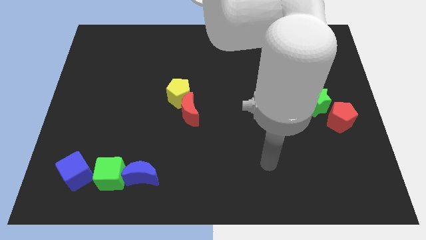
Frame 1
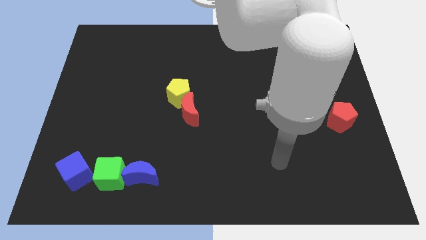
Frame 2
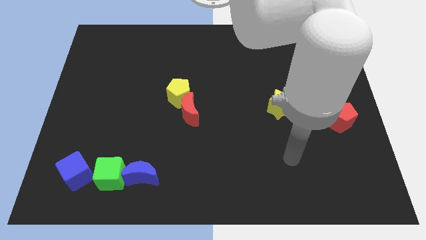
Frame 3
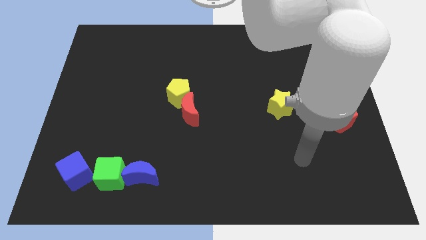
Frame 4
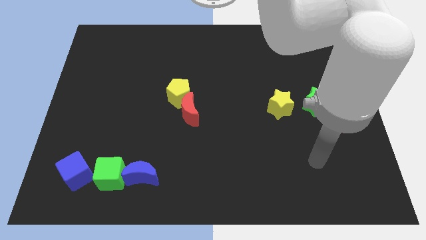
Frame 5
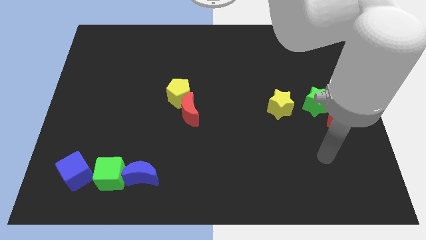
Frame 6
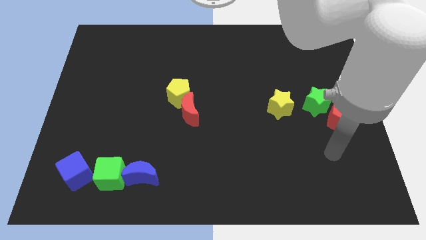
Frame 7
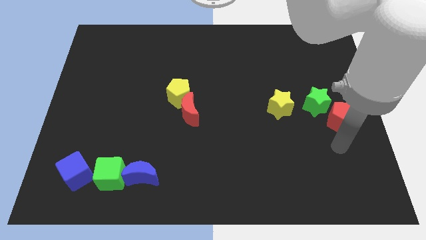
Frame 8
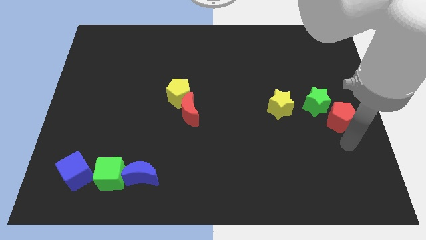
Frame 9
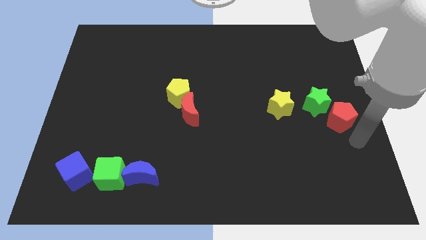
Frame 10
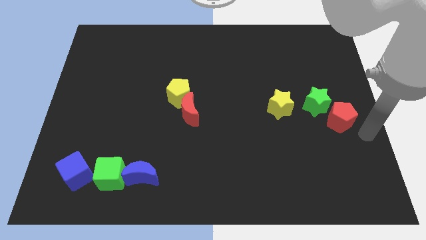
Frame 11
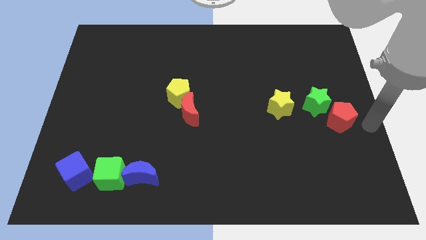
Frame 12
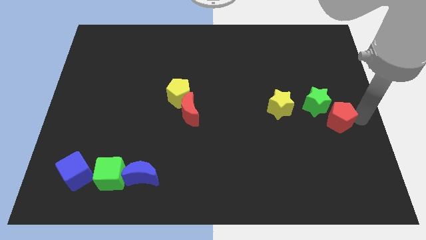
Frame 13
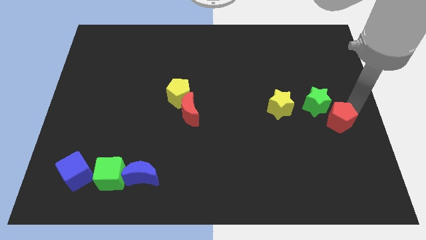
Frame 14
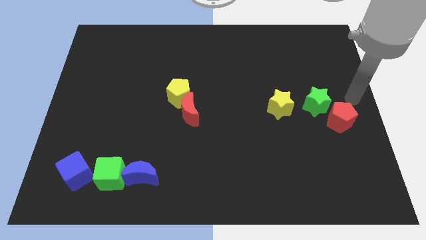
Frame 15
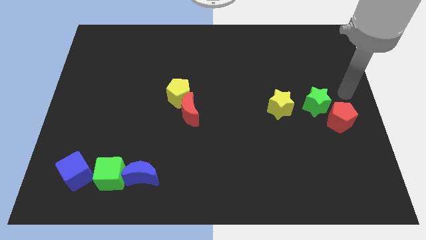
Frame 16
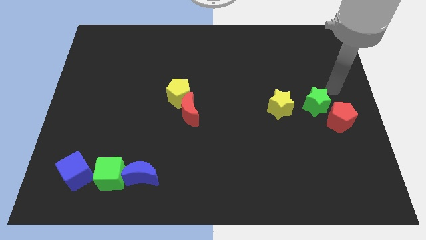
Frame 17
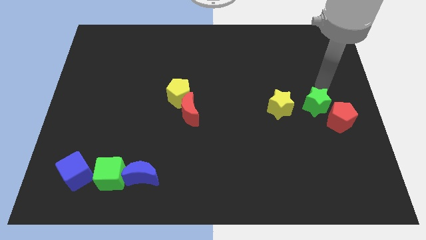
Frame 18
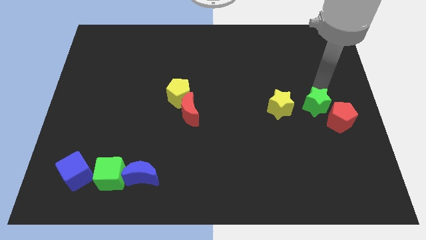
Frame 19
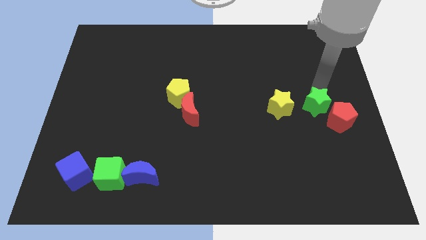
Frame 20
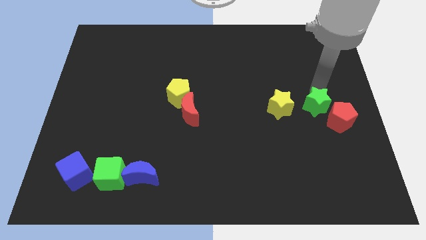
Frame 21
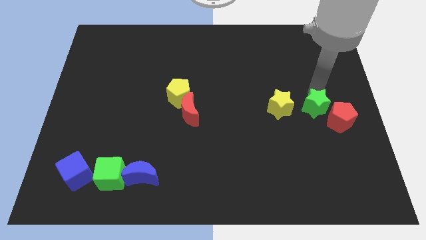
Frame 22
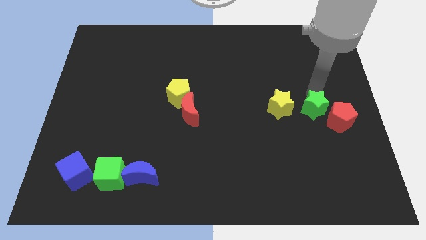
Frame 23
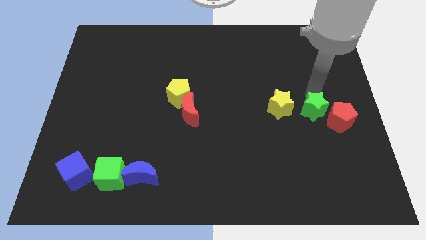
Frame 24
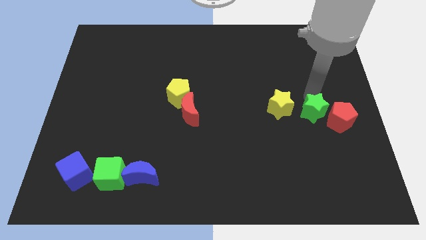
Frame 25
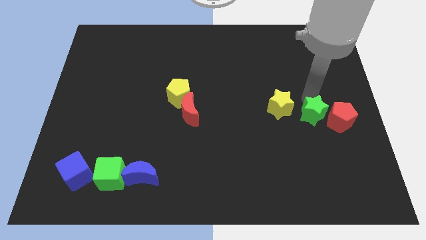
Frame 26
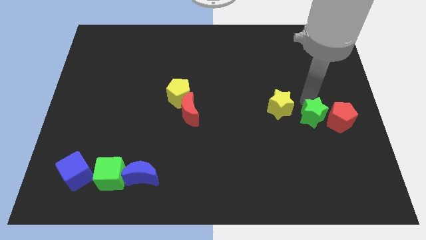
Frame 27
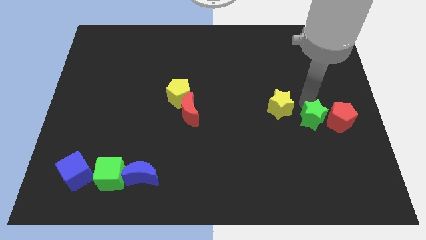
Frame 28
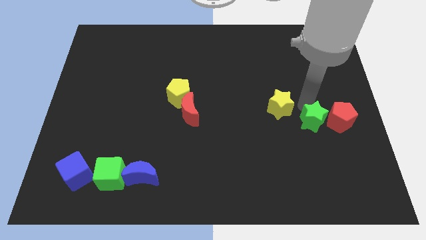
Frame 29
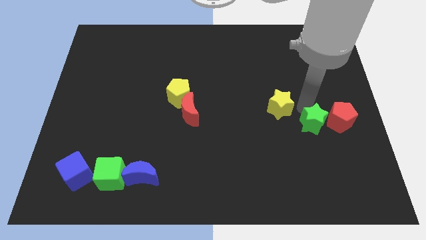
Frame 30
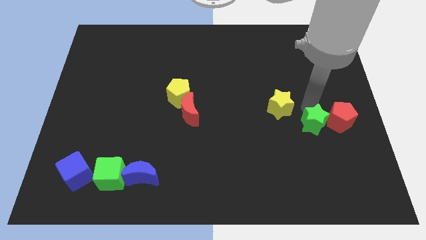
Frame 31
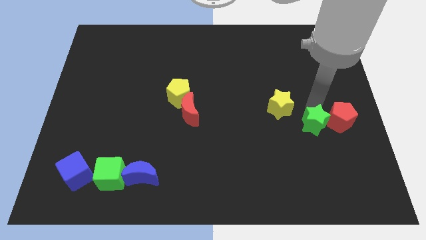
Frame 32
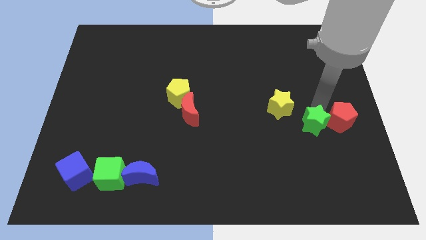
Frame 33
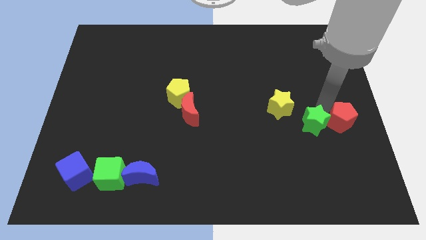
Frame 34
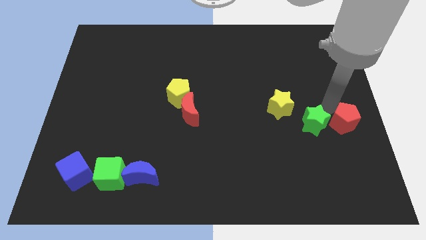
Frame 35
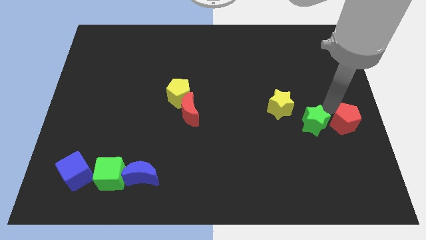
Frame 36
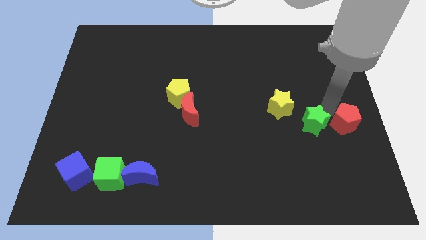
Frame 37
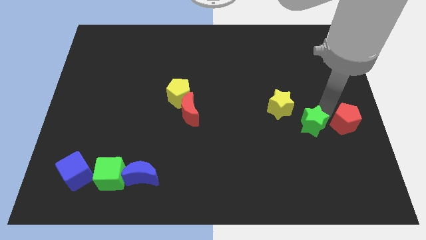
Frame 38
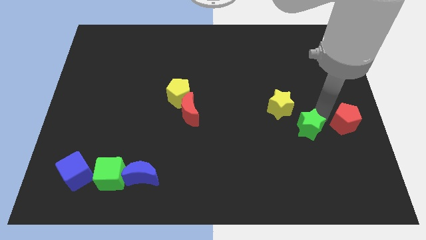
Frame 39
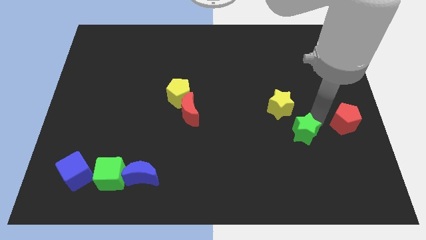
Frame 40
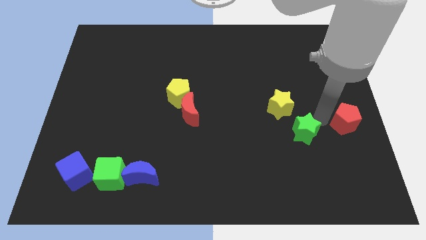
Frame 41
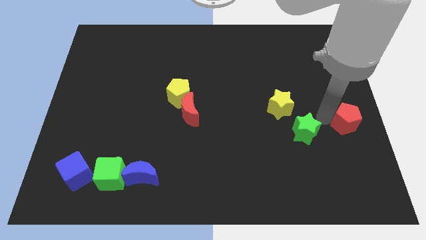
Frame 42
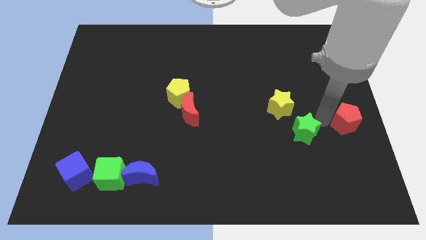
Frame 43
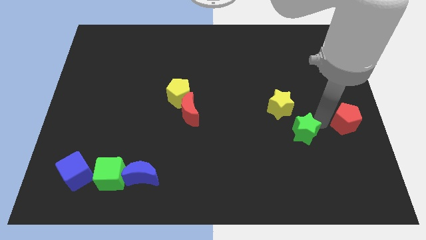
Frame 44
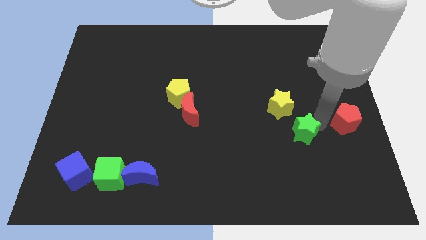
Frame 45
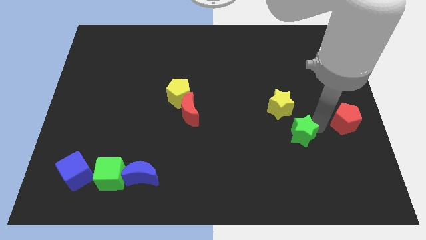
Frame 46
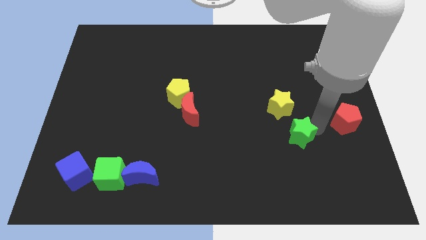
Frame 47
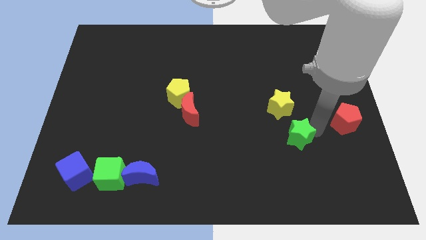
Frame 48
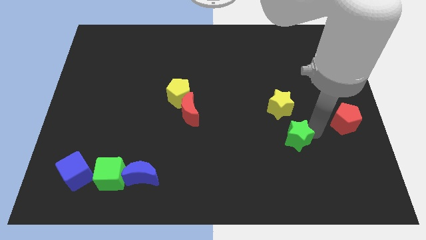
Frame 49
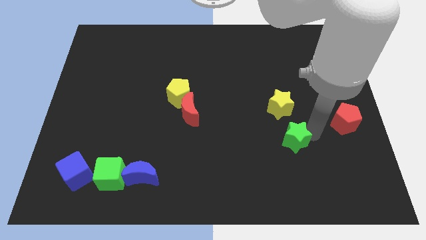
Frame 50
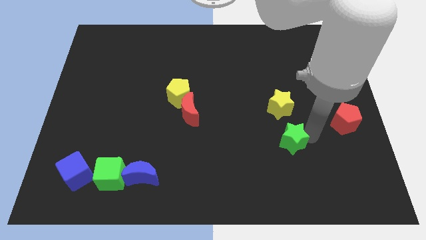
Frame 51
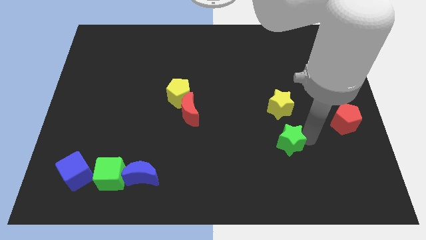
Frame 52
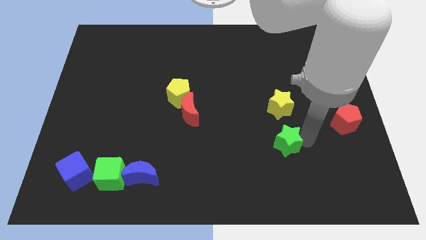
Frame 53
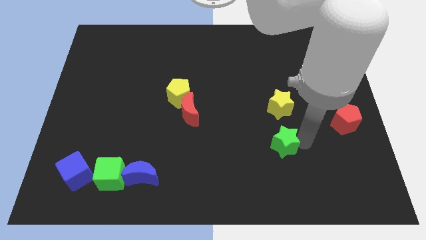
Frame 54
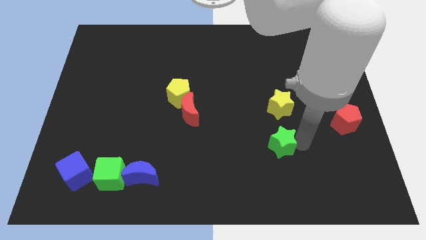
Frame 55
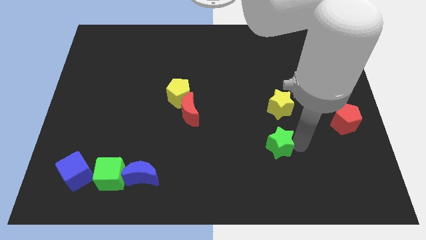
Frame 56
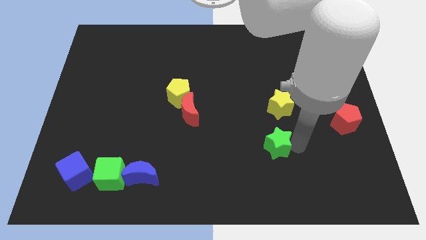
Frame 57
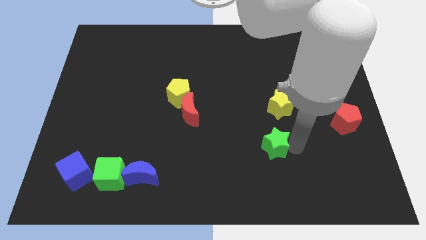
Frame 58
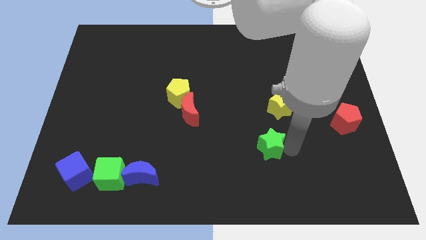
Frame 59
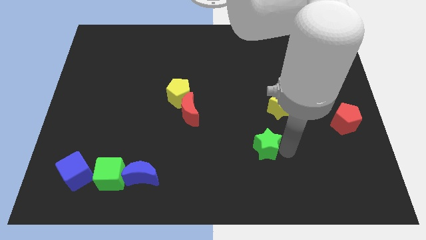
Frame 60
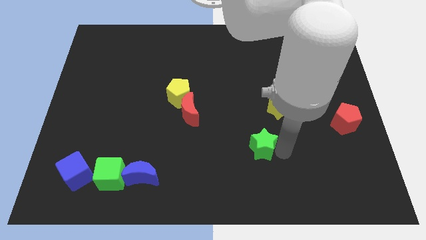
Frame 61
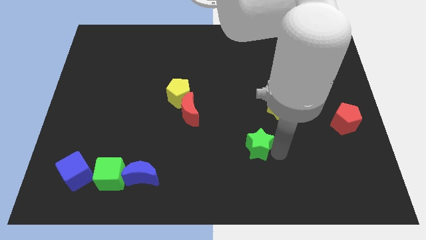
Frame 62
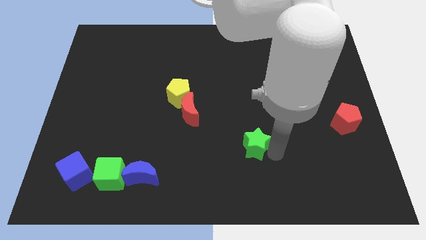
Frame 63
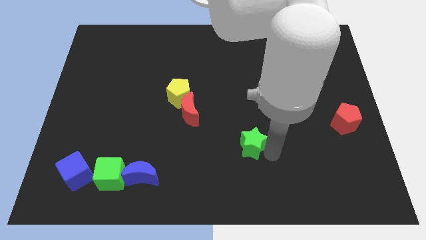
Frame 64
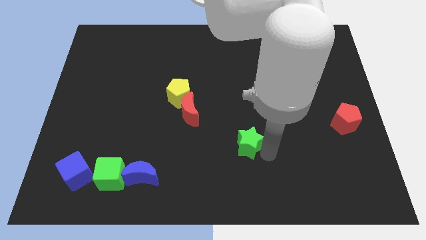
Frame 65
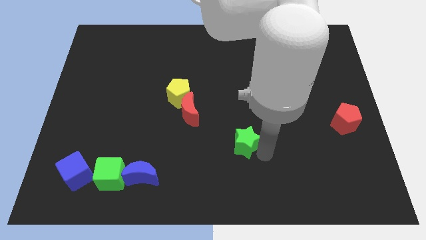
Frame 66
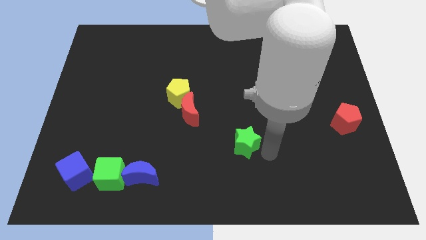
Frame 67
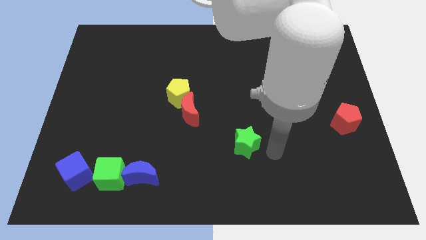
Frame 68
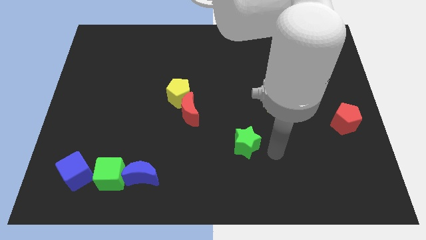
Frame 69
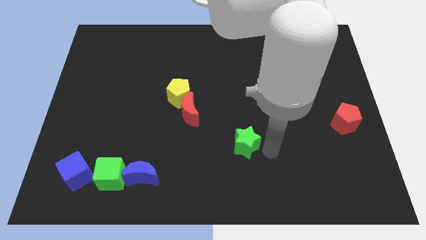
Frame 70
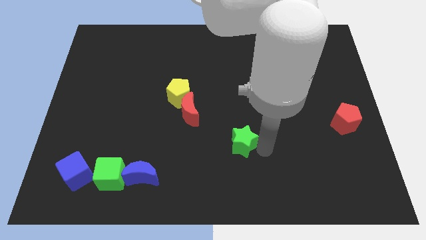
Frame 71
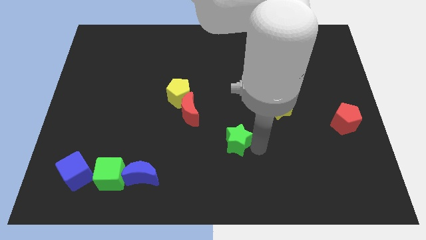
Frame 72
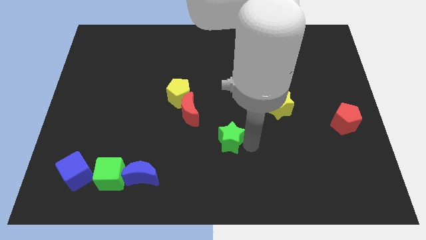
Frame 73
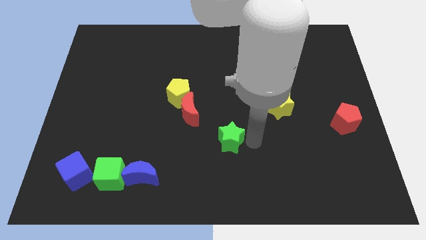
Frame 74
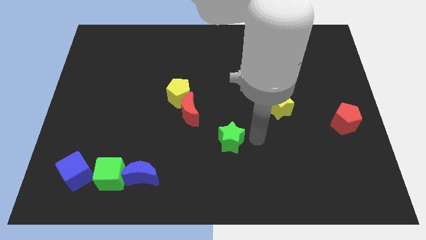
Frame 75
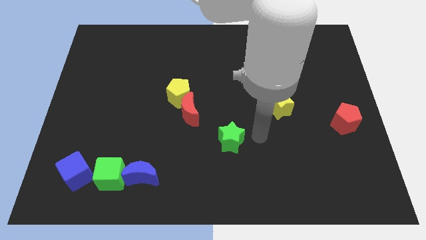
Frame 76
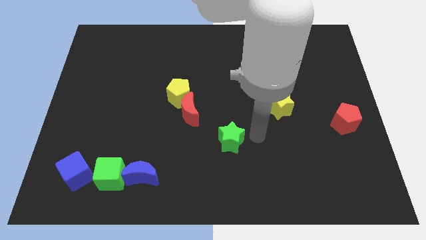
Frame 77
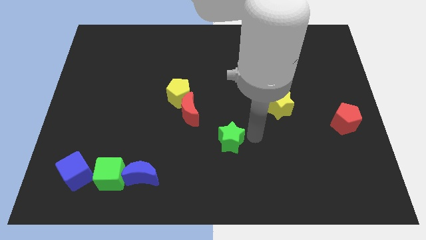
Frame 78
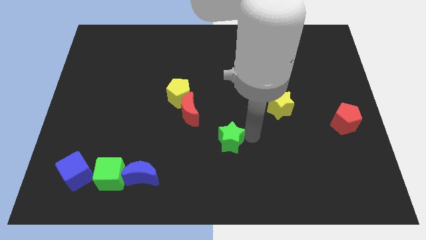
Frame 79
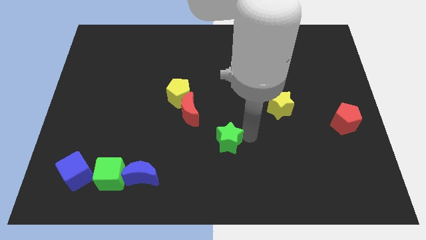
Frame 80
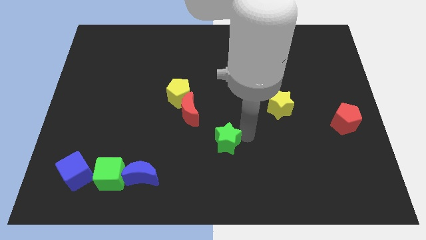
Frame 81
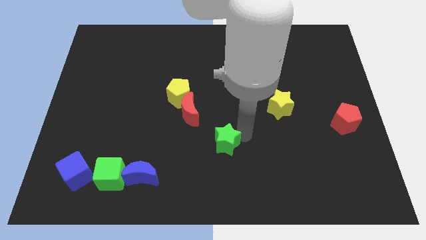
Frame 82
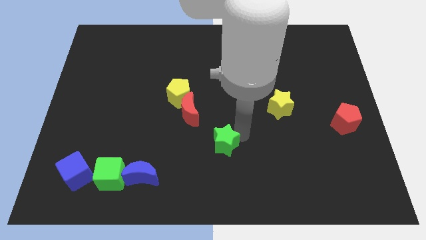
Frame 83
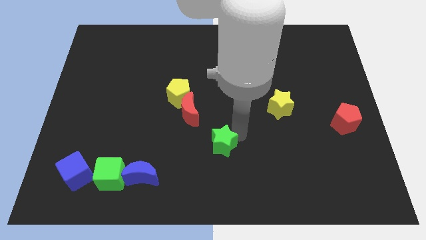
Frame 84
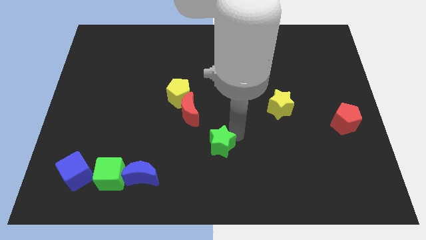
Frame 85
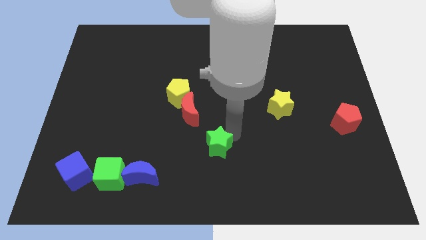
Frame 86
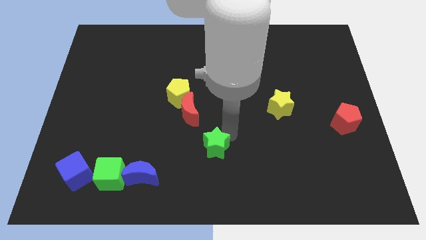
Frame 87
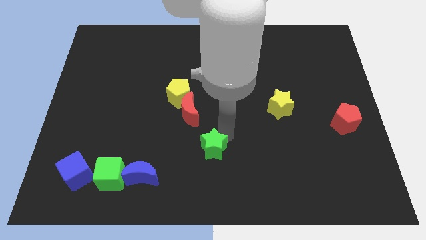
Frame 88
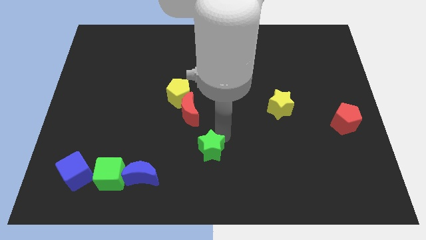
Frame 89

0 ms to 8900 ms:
push the green star to the bottom side of the red moon
